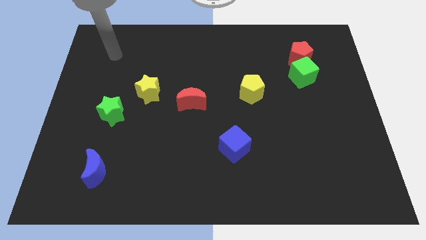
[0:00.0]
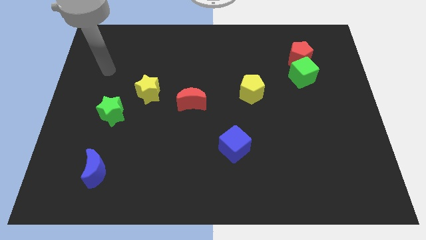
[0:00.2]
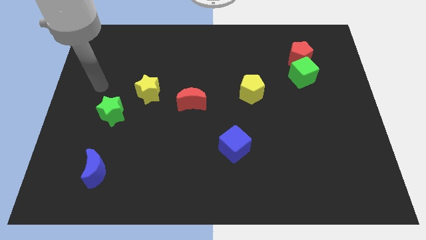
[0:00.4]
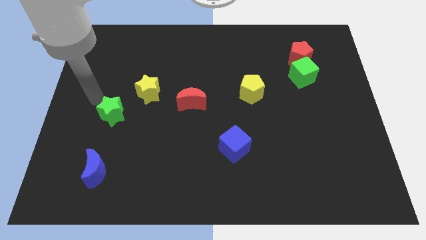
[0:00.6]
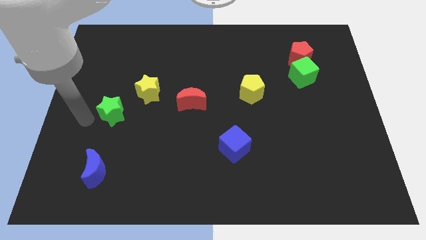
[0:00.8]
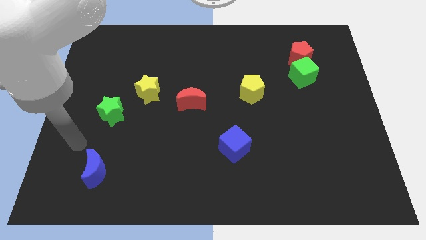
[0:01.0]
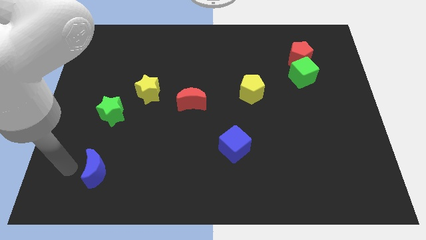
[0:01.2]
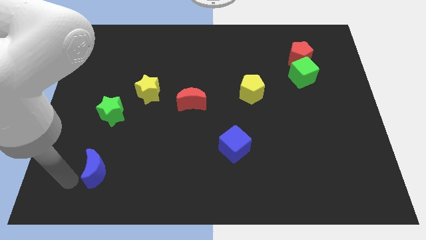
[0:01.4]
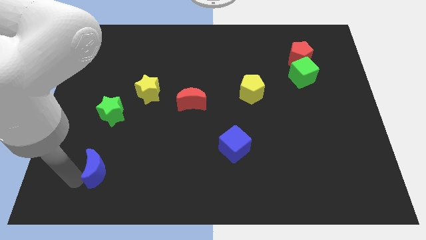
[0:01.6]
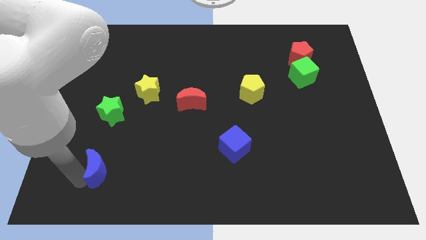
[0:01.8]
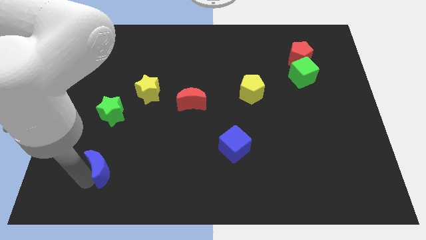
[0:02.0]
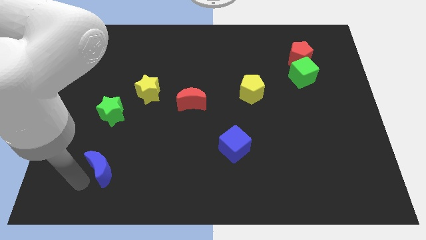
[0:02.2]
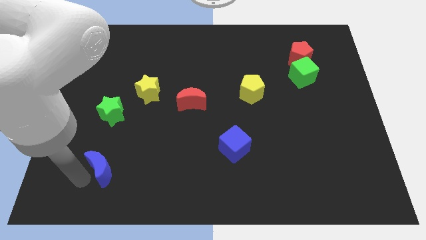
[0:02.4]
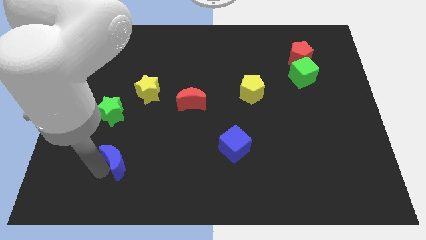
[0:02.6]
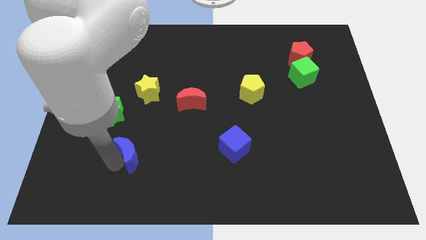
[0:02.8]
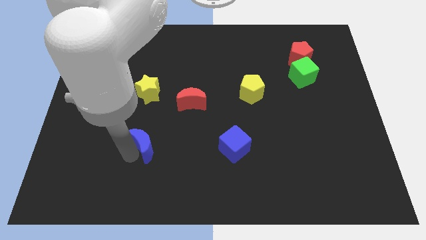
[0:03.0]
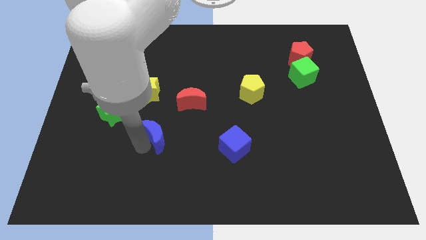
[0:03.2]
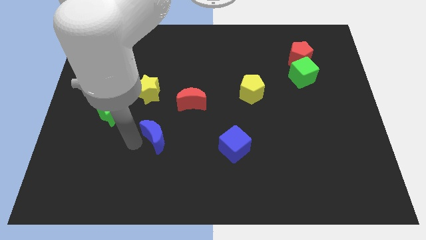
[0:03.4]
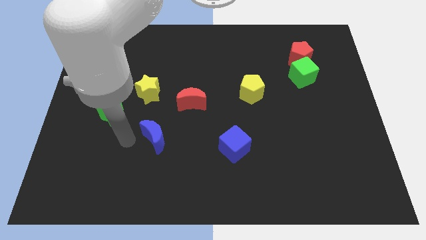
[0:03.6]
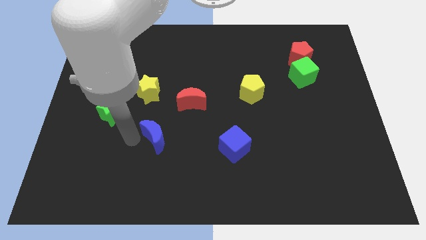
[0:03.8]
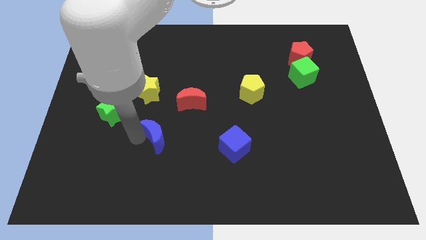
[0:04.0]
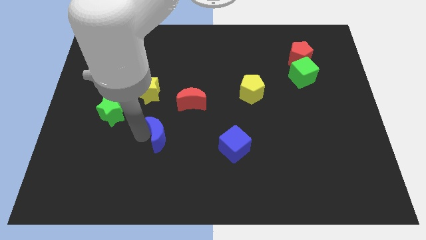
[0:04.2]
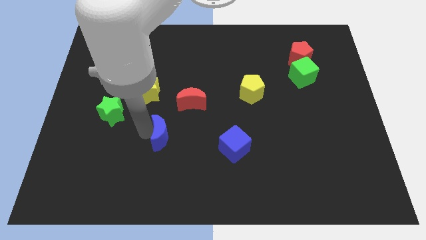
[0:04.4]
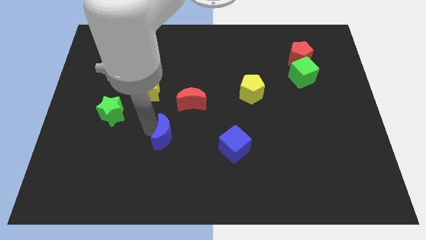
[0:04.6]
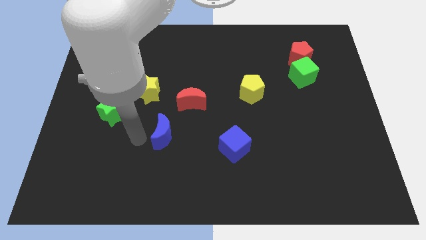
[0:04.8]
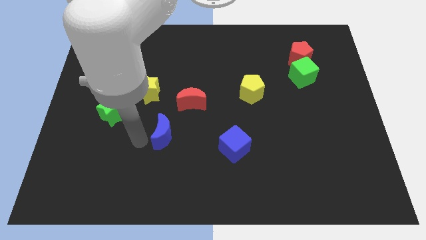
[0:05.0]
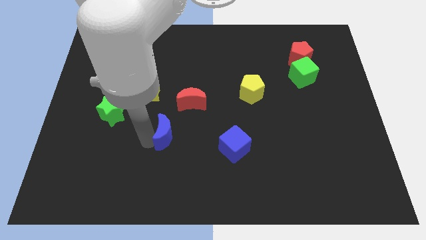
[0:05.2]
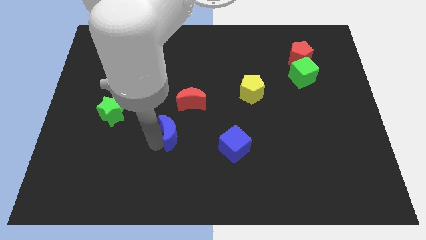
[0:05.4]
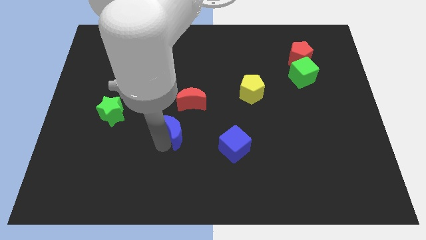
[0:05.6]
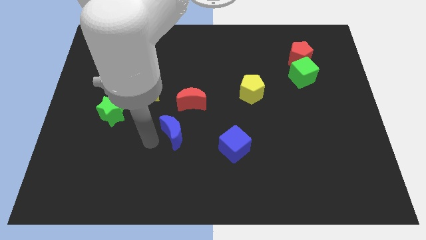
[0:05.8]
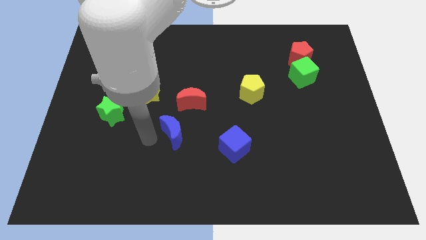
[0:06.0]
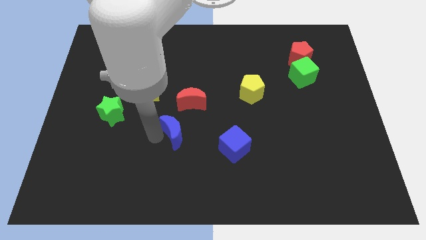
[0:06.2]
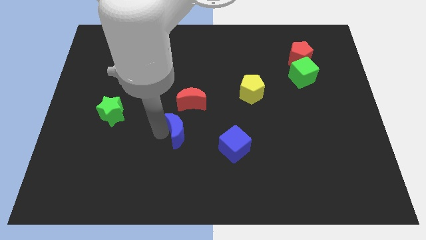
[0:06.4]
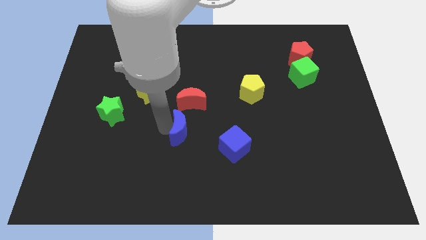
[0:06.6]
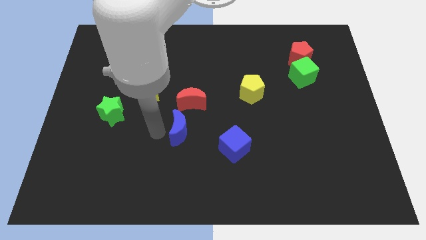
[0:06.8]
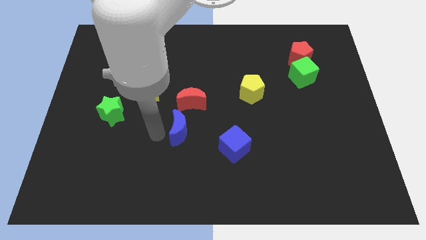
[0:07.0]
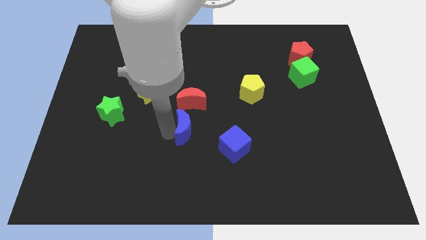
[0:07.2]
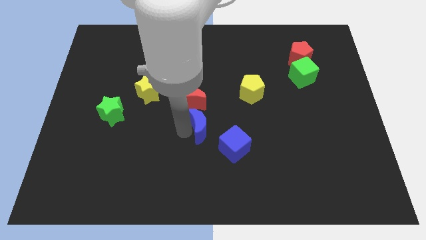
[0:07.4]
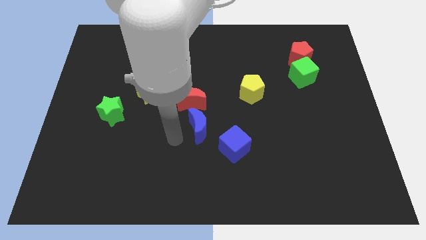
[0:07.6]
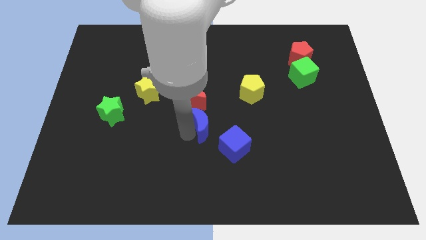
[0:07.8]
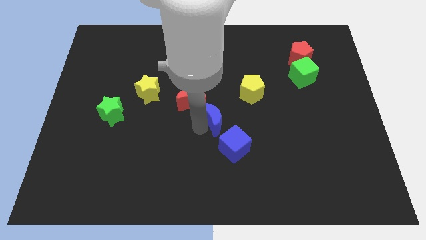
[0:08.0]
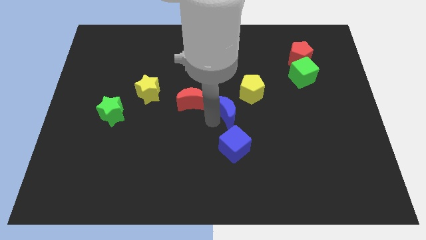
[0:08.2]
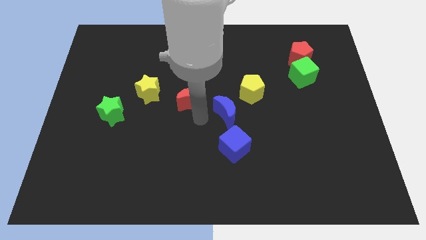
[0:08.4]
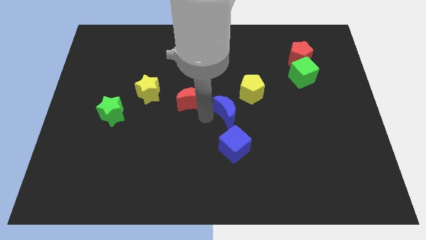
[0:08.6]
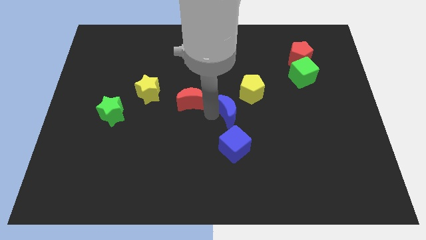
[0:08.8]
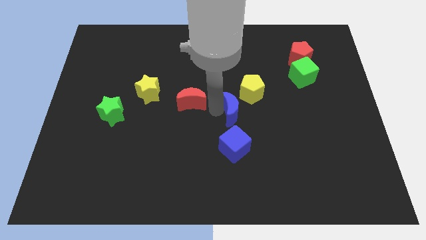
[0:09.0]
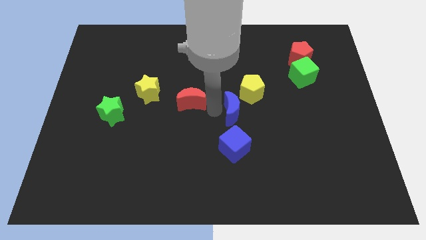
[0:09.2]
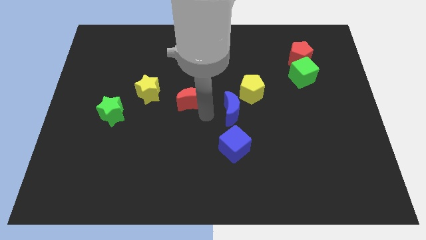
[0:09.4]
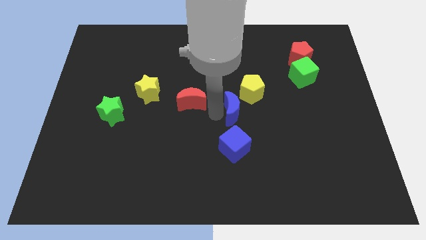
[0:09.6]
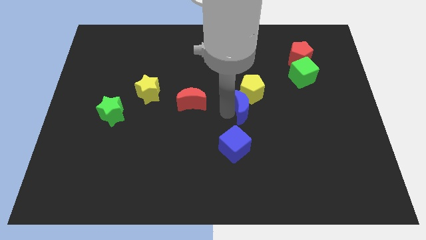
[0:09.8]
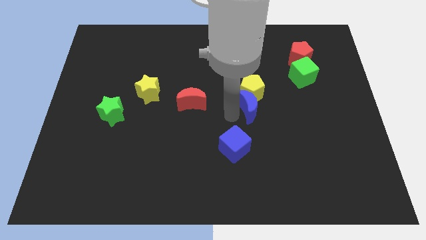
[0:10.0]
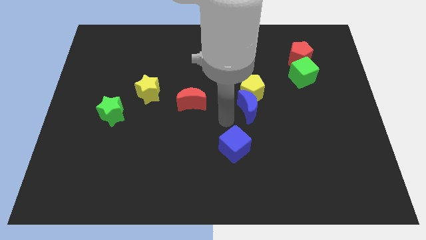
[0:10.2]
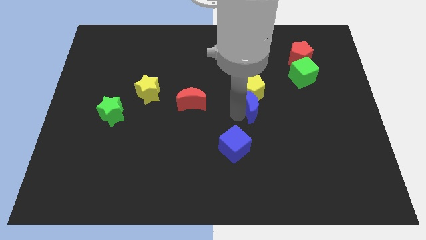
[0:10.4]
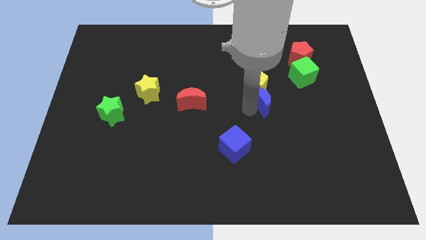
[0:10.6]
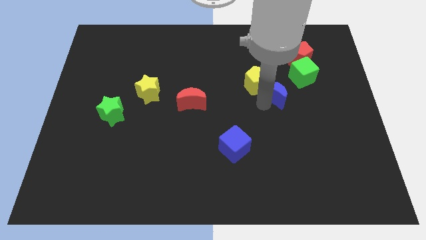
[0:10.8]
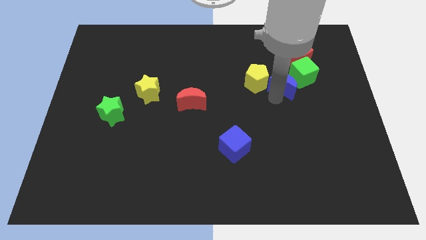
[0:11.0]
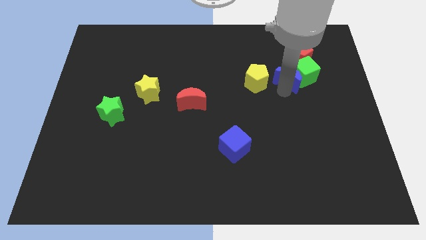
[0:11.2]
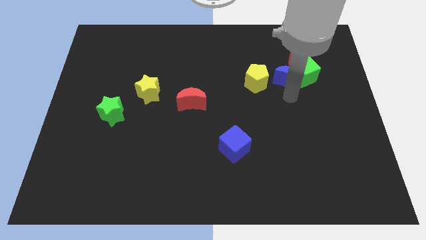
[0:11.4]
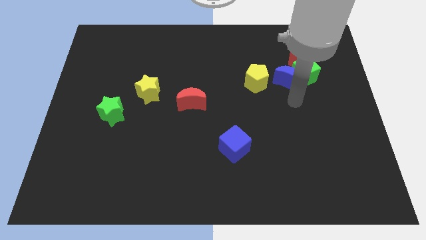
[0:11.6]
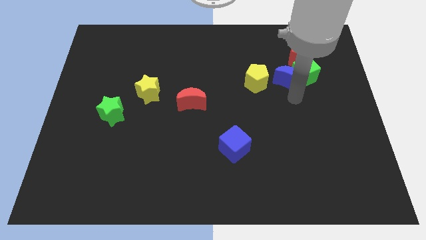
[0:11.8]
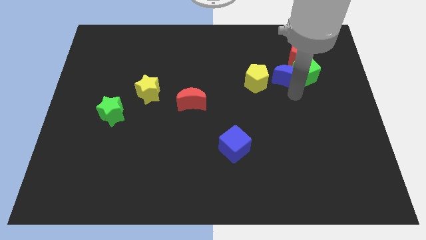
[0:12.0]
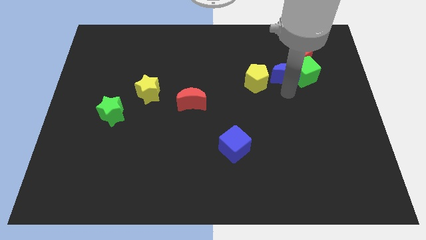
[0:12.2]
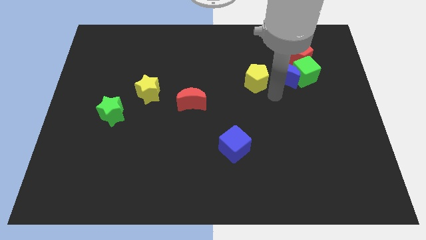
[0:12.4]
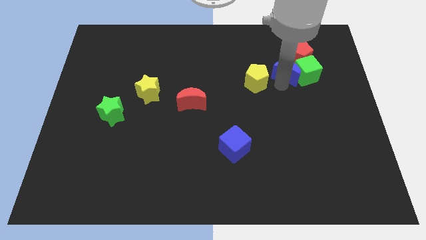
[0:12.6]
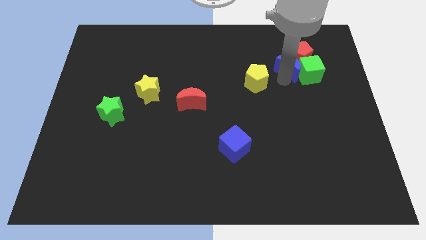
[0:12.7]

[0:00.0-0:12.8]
slide the blue moon next to the red pentagon

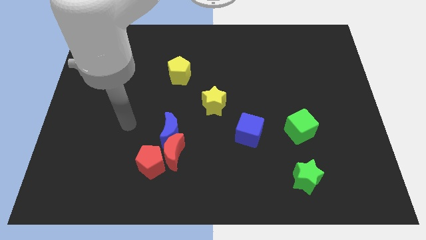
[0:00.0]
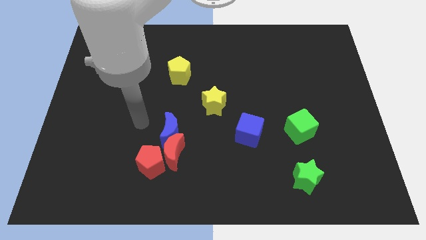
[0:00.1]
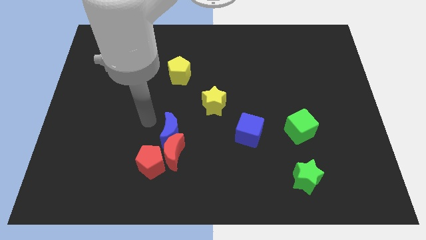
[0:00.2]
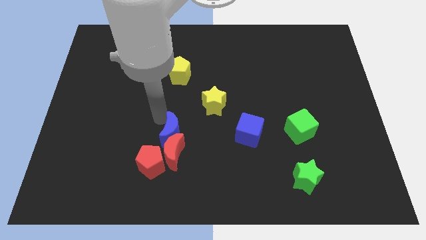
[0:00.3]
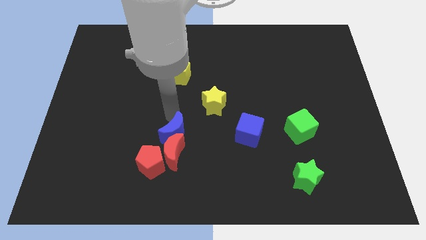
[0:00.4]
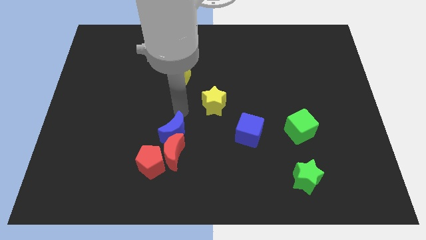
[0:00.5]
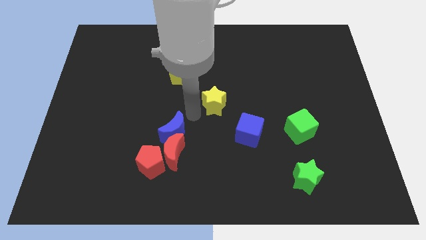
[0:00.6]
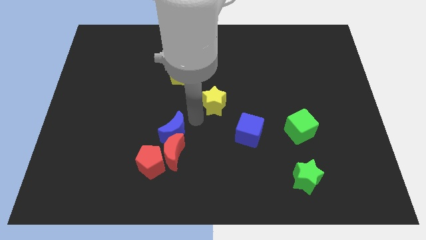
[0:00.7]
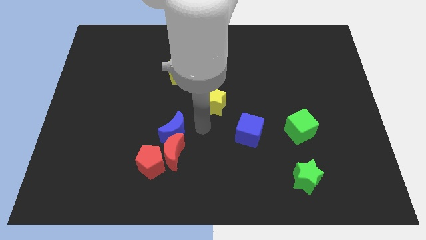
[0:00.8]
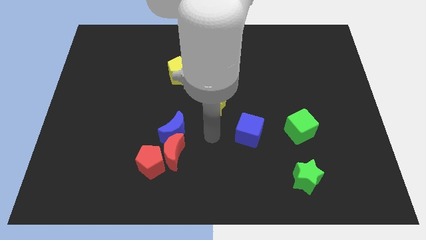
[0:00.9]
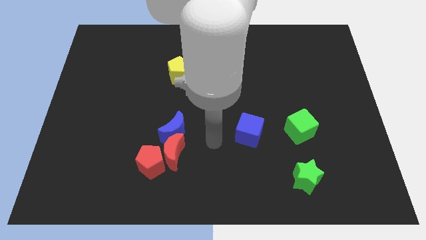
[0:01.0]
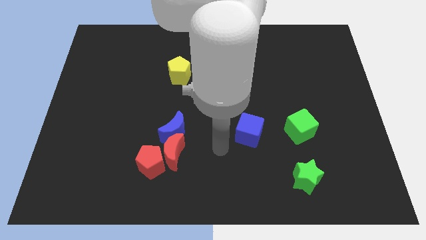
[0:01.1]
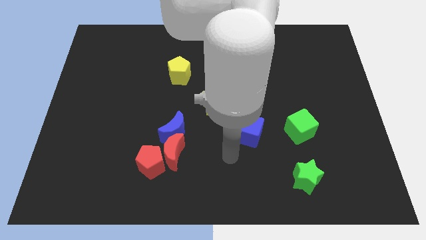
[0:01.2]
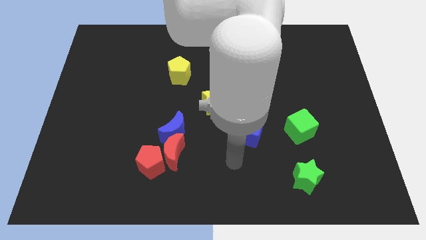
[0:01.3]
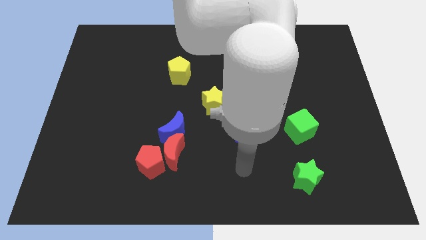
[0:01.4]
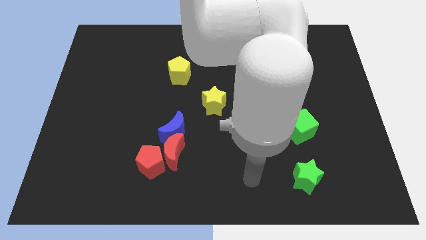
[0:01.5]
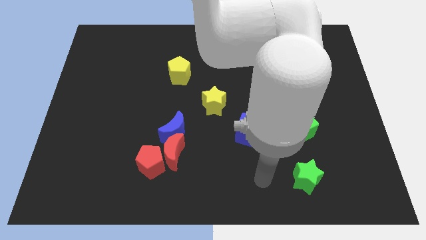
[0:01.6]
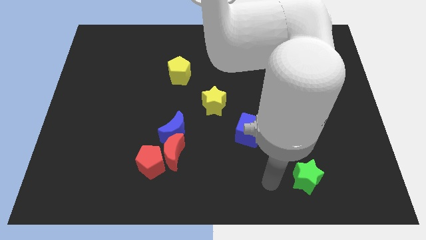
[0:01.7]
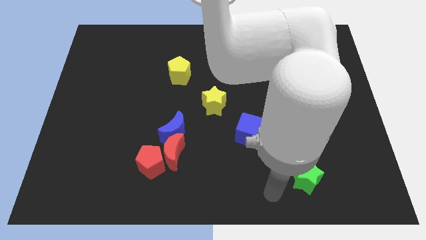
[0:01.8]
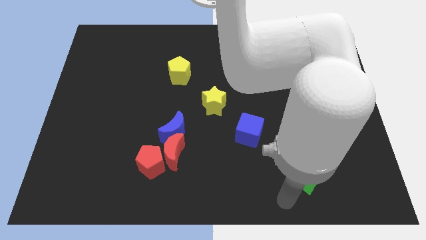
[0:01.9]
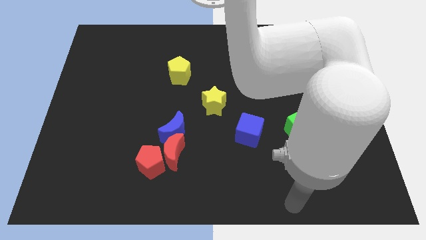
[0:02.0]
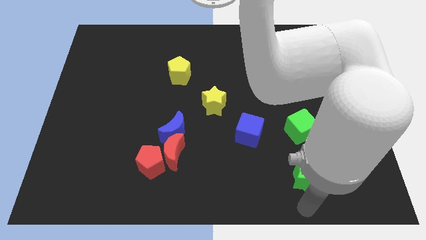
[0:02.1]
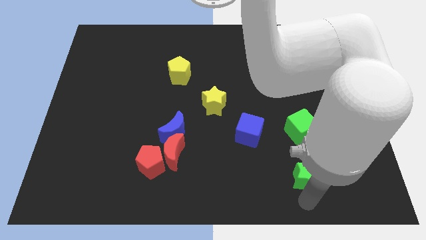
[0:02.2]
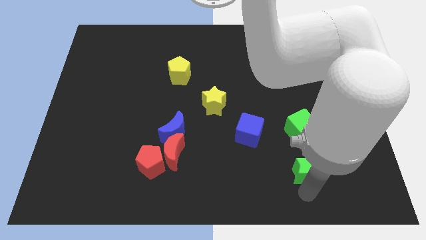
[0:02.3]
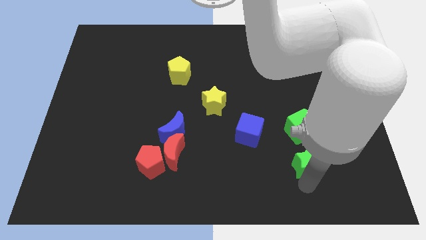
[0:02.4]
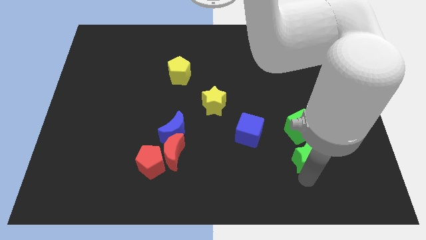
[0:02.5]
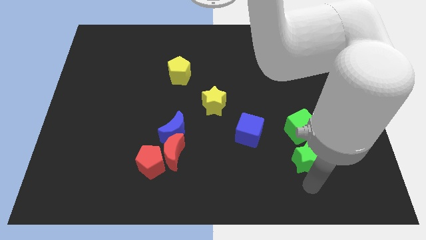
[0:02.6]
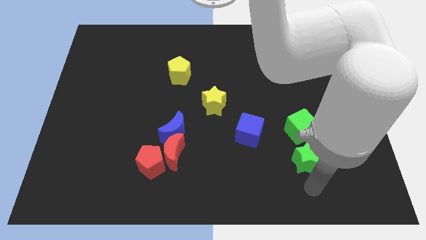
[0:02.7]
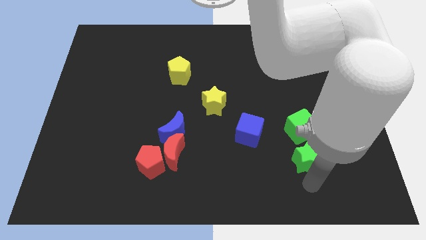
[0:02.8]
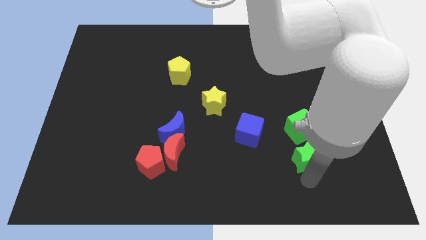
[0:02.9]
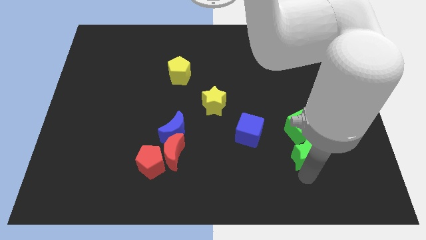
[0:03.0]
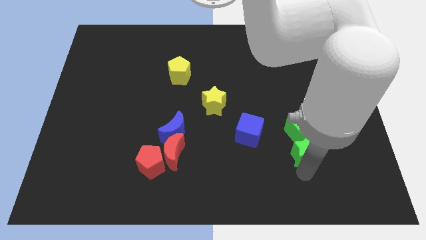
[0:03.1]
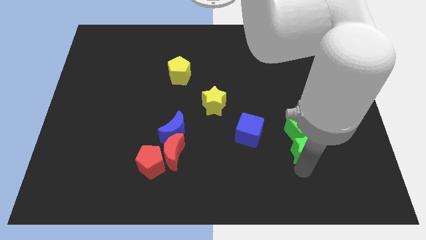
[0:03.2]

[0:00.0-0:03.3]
slide the green star next to the green cube
